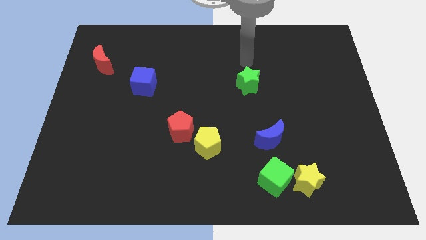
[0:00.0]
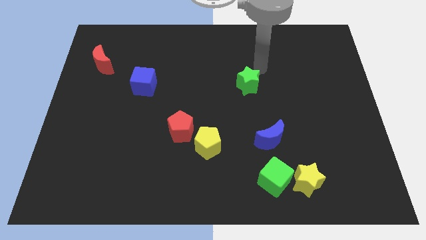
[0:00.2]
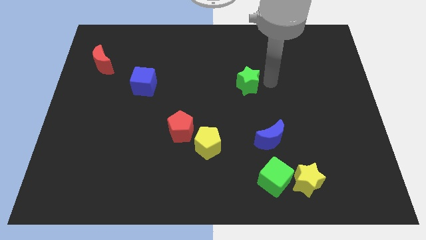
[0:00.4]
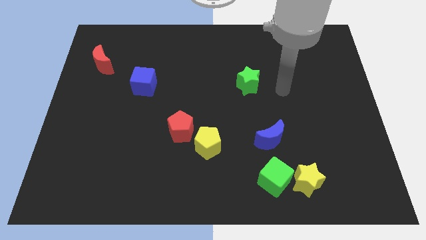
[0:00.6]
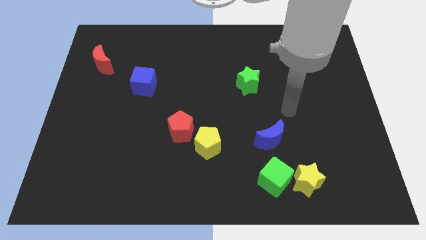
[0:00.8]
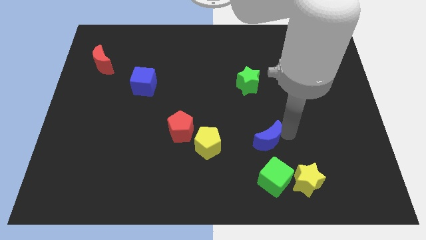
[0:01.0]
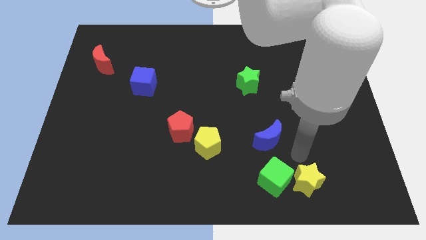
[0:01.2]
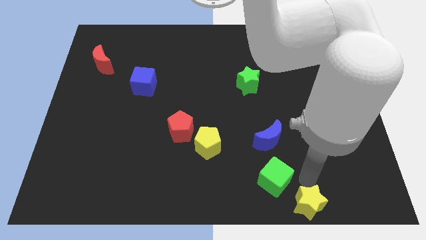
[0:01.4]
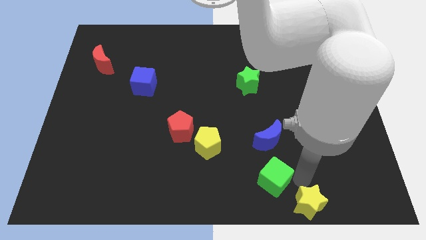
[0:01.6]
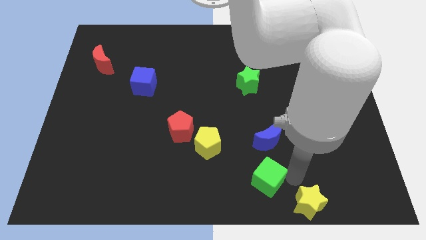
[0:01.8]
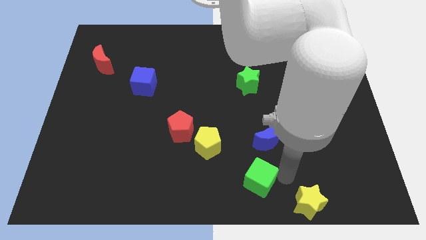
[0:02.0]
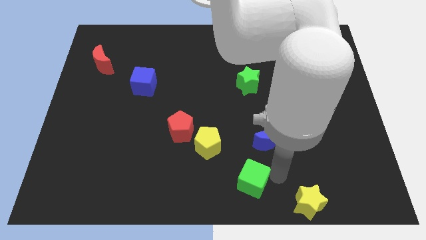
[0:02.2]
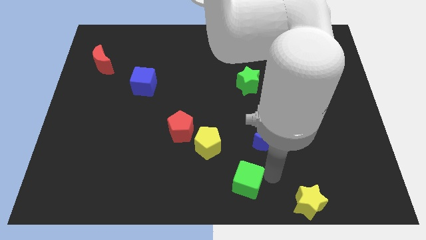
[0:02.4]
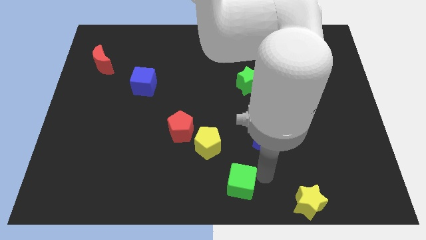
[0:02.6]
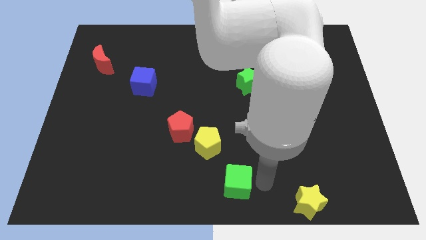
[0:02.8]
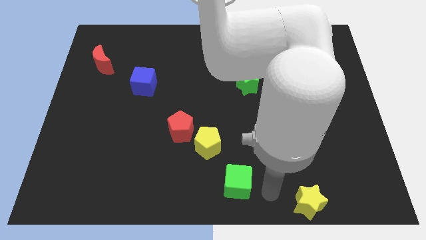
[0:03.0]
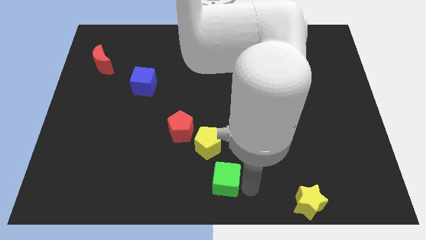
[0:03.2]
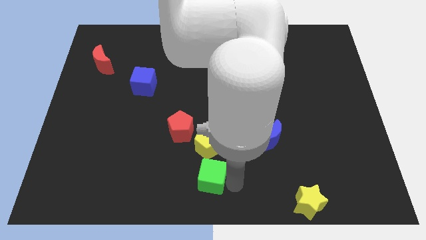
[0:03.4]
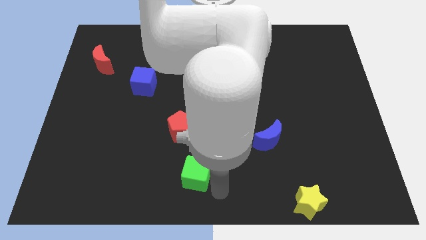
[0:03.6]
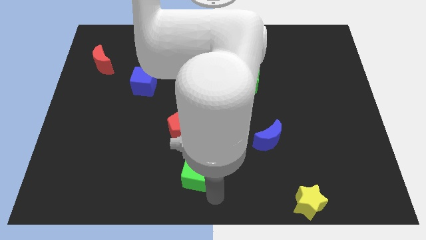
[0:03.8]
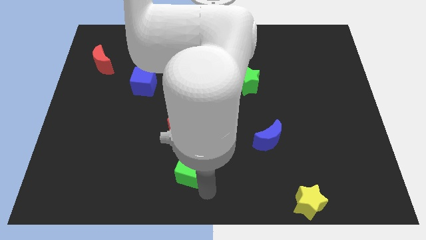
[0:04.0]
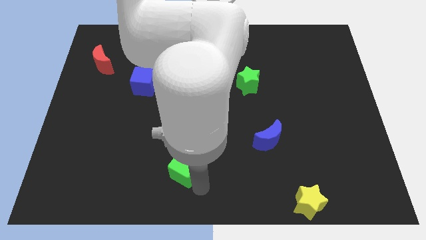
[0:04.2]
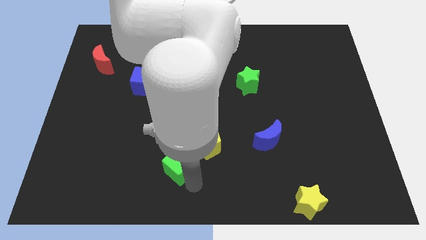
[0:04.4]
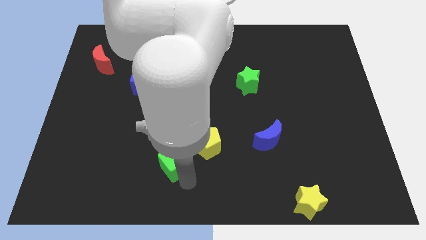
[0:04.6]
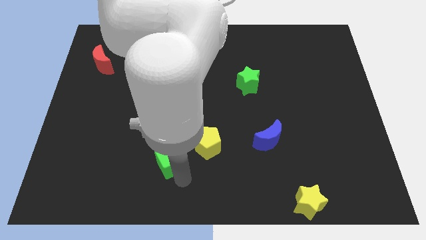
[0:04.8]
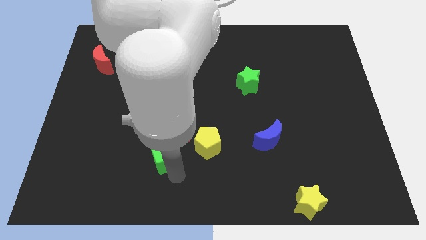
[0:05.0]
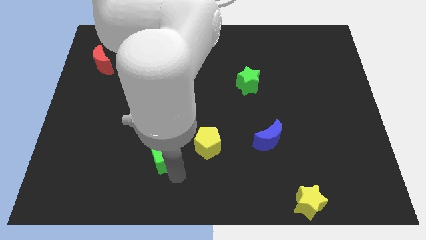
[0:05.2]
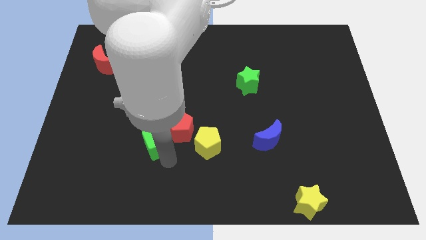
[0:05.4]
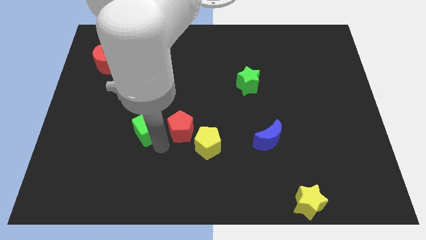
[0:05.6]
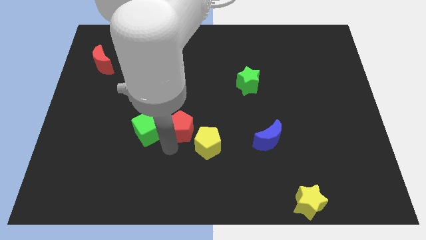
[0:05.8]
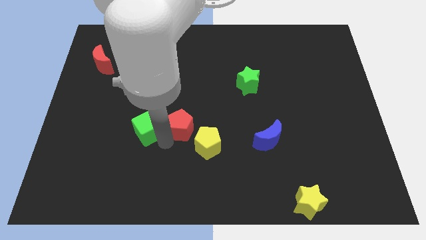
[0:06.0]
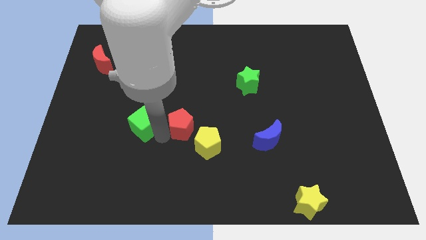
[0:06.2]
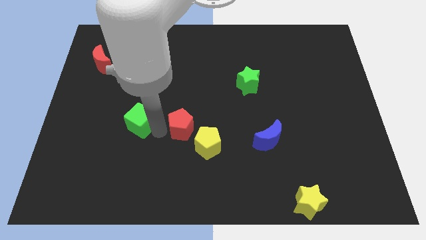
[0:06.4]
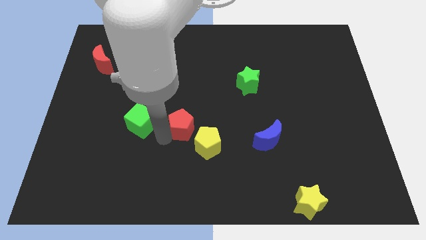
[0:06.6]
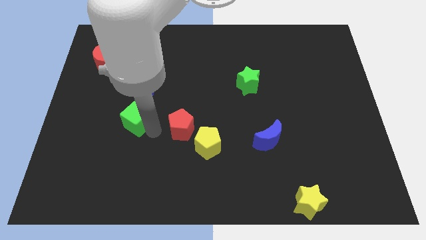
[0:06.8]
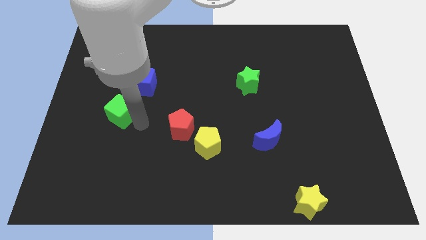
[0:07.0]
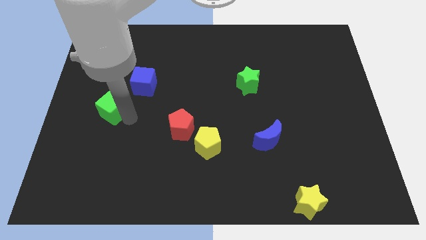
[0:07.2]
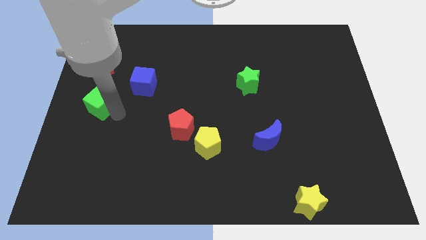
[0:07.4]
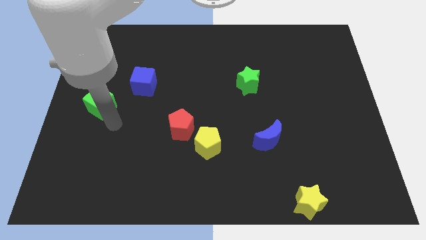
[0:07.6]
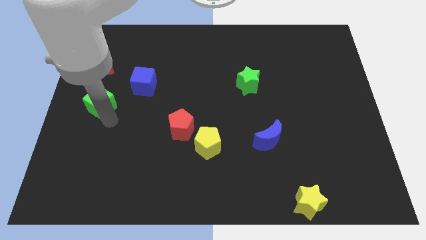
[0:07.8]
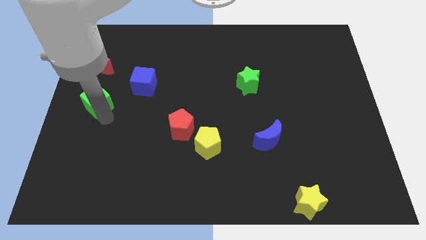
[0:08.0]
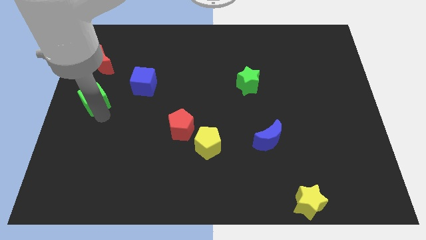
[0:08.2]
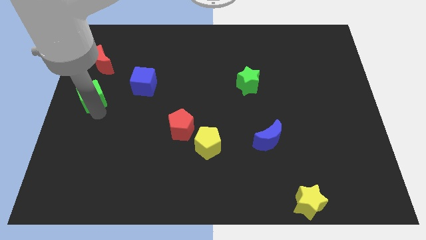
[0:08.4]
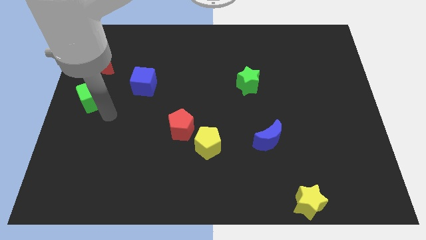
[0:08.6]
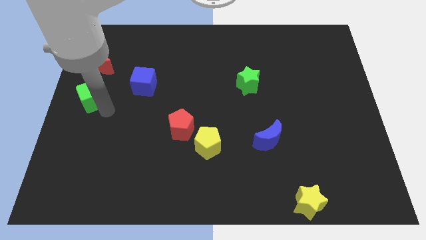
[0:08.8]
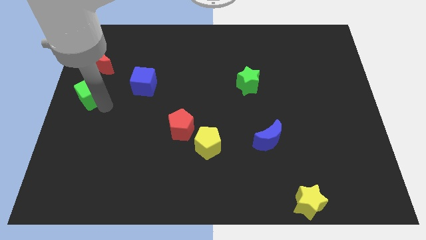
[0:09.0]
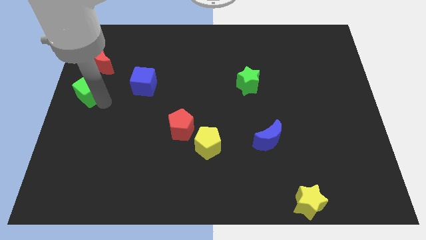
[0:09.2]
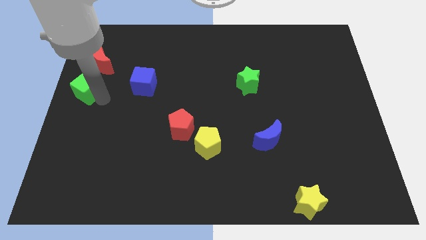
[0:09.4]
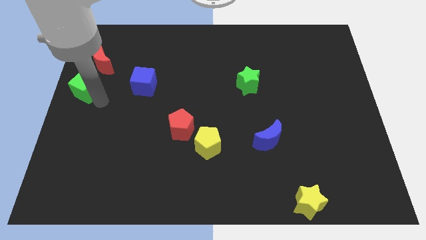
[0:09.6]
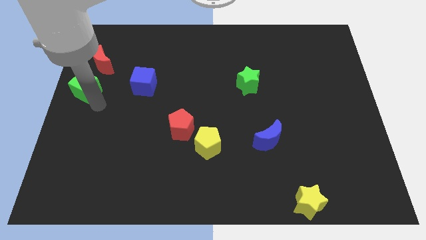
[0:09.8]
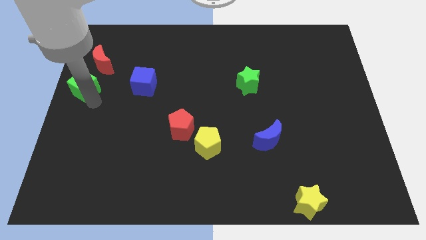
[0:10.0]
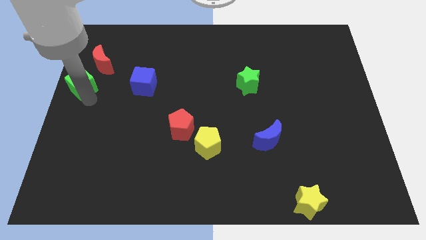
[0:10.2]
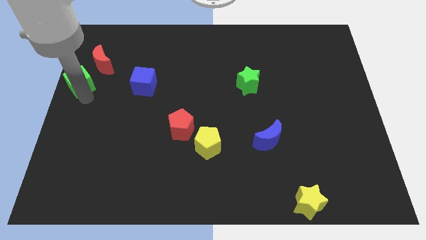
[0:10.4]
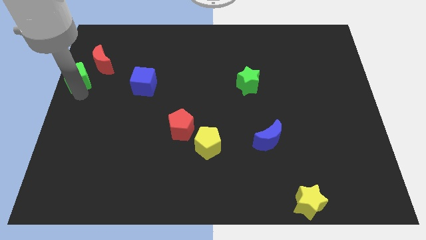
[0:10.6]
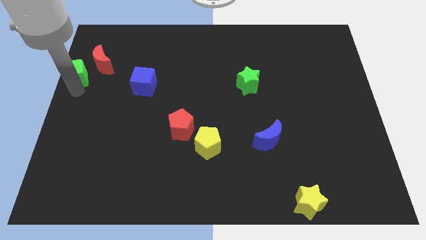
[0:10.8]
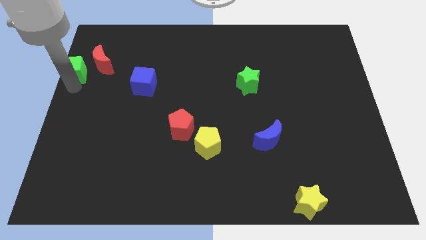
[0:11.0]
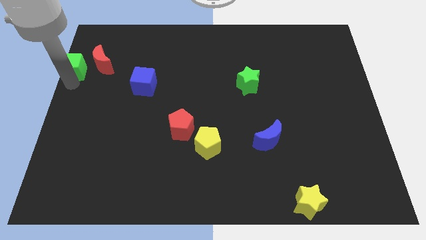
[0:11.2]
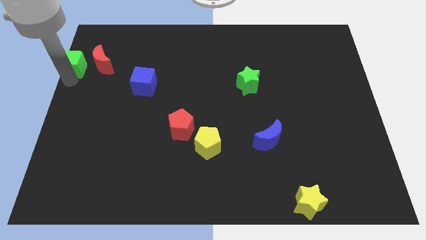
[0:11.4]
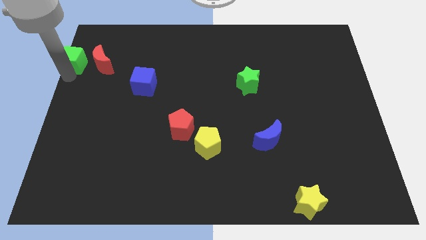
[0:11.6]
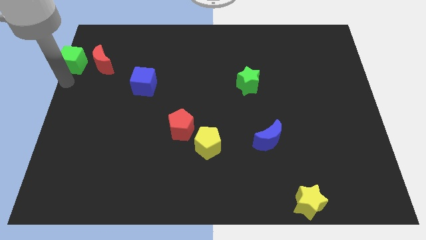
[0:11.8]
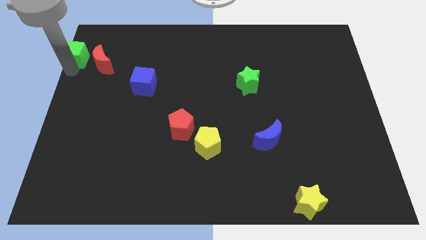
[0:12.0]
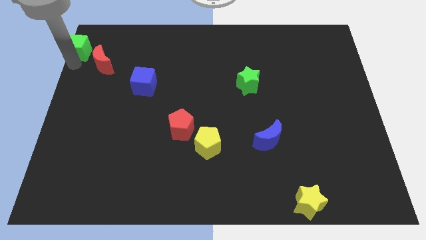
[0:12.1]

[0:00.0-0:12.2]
put the green cube to the upper left corner
